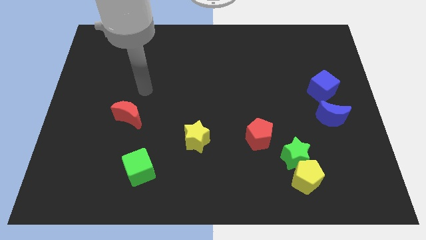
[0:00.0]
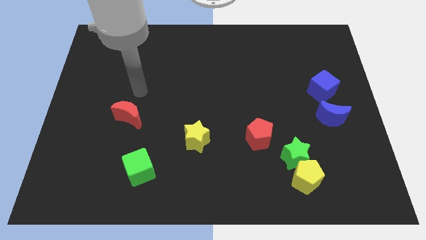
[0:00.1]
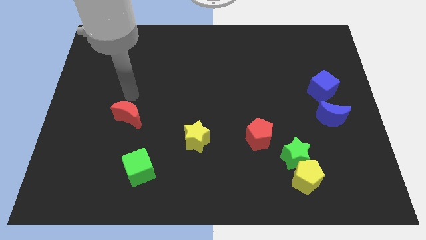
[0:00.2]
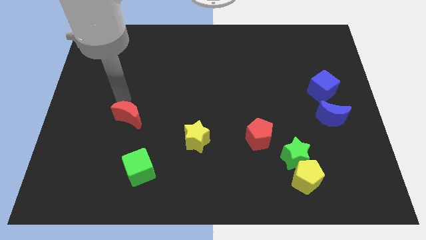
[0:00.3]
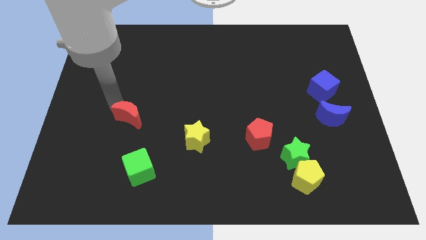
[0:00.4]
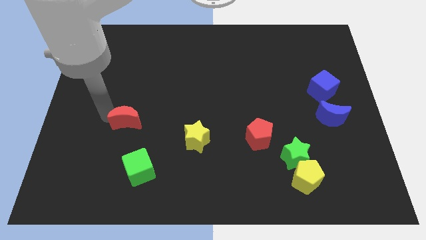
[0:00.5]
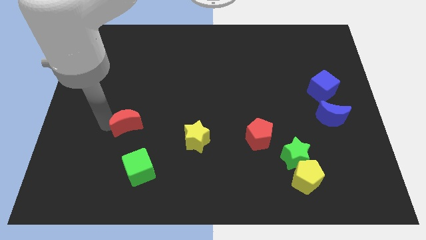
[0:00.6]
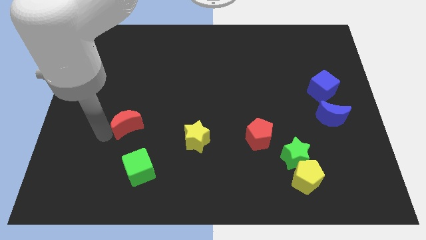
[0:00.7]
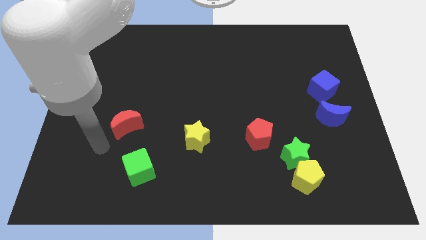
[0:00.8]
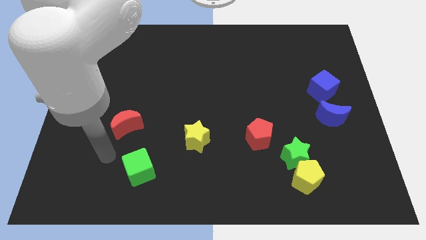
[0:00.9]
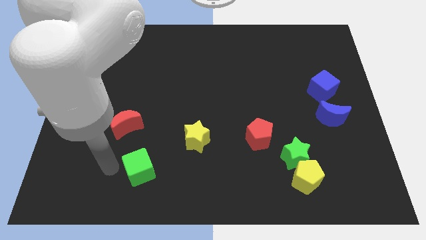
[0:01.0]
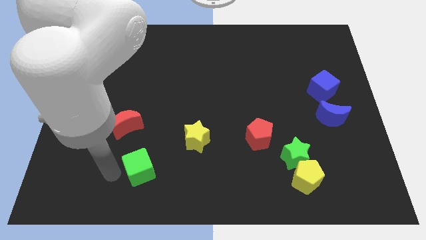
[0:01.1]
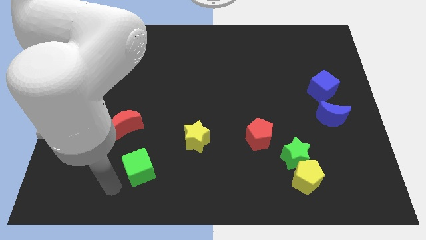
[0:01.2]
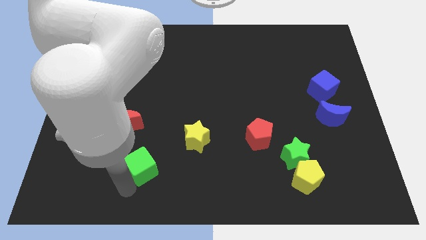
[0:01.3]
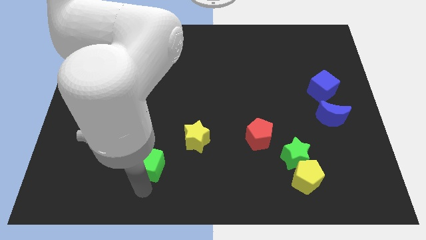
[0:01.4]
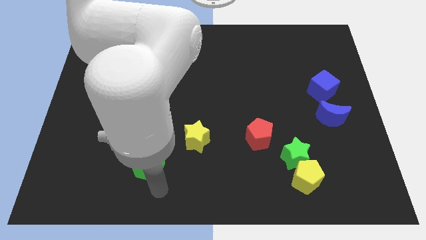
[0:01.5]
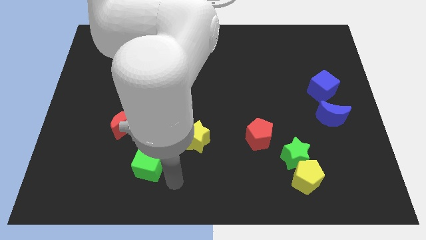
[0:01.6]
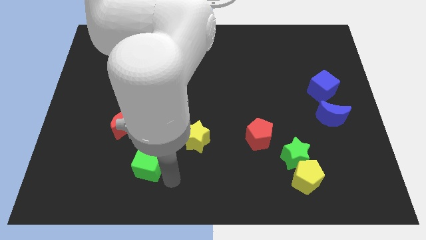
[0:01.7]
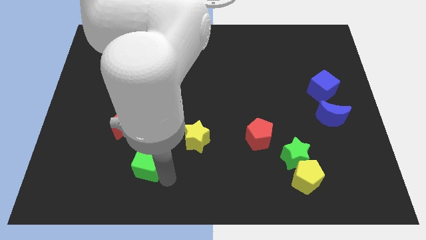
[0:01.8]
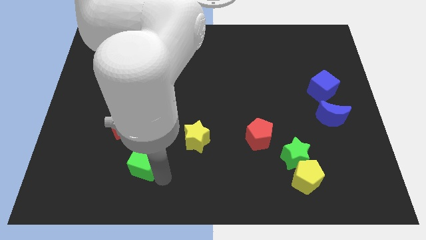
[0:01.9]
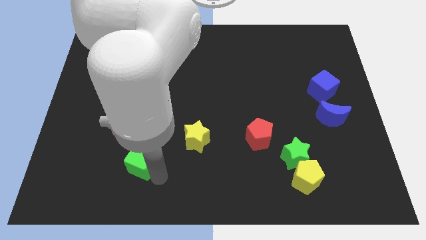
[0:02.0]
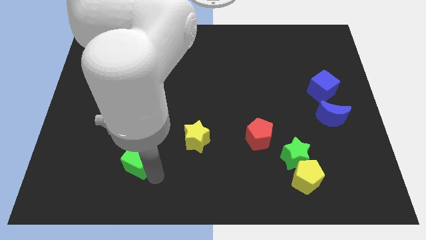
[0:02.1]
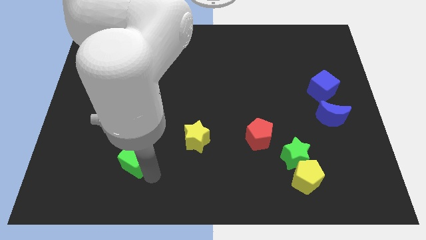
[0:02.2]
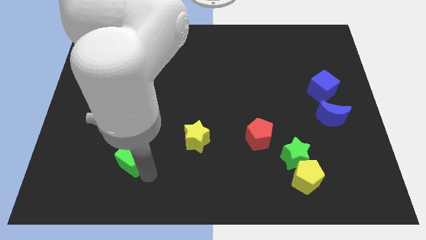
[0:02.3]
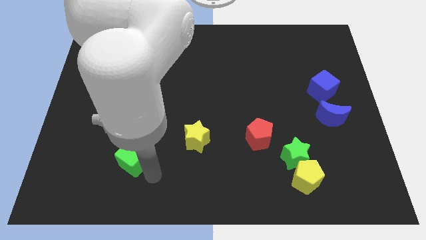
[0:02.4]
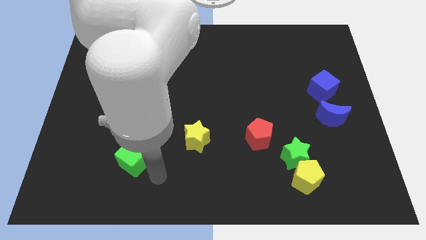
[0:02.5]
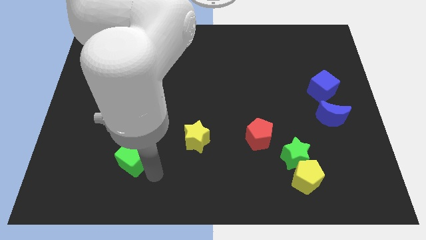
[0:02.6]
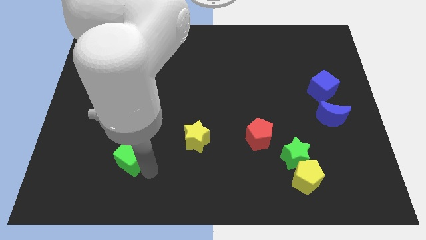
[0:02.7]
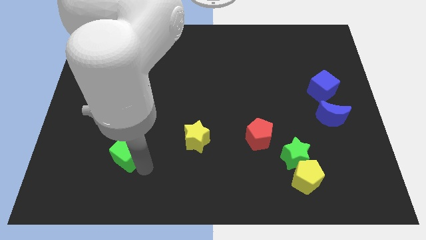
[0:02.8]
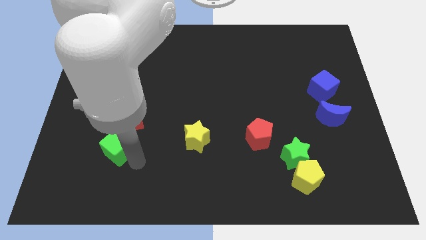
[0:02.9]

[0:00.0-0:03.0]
slide the green cube upwards and then to the left a bit

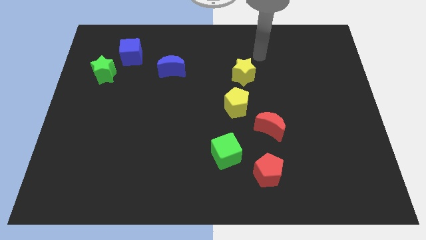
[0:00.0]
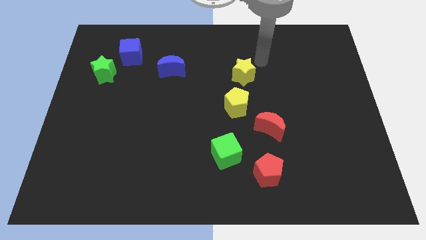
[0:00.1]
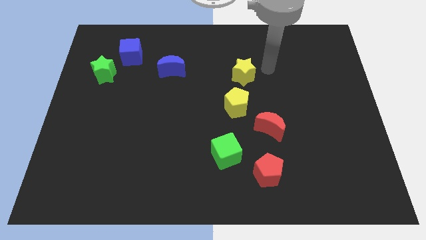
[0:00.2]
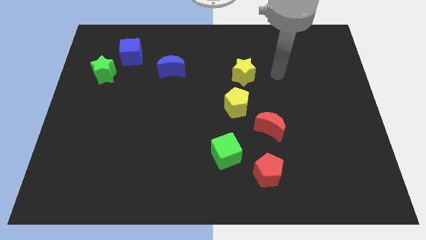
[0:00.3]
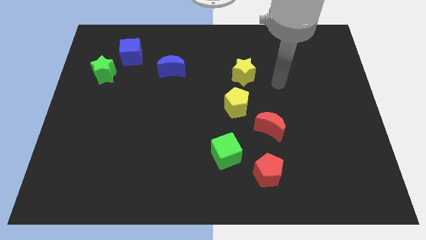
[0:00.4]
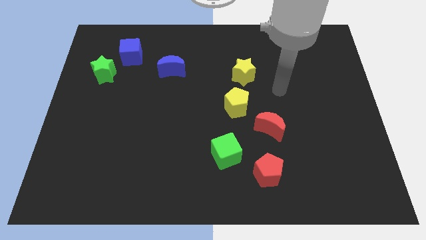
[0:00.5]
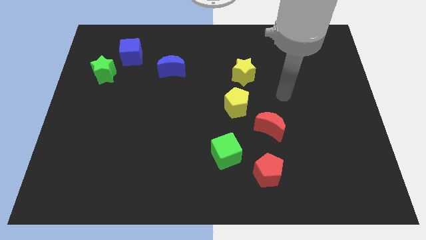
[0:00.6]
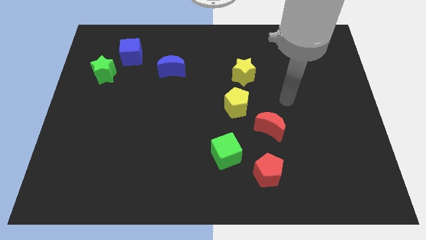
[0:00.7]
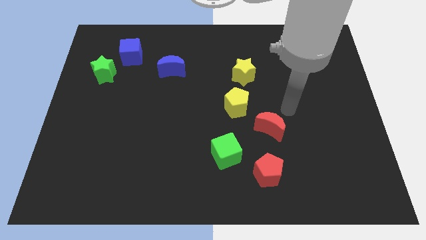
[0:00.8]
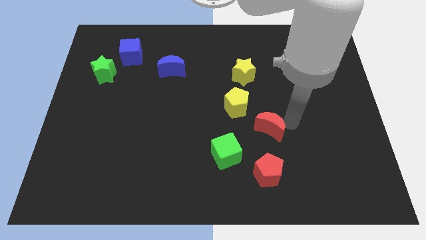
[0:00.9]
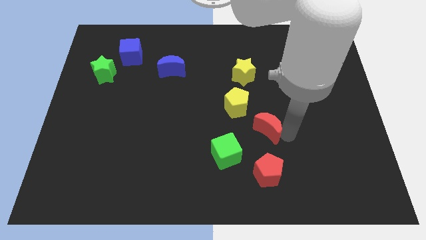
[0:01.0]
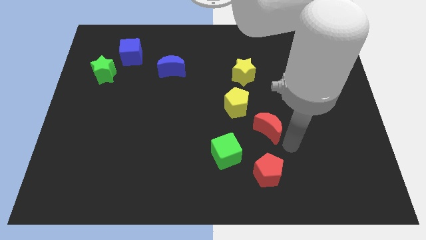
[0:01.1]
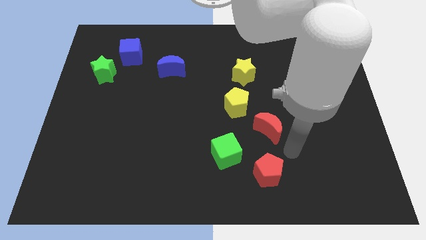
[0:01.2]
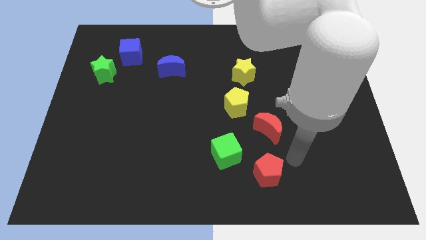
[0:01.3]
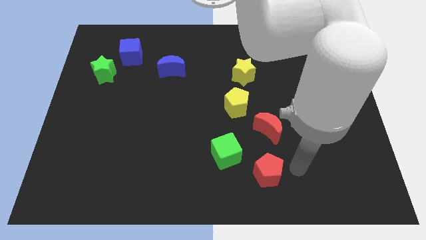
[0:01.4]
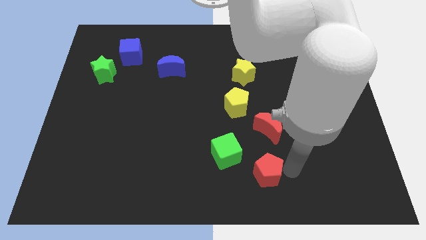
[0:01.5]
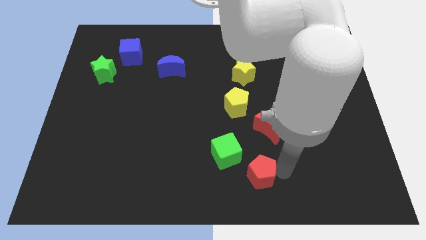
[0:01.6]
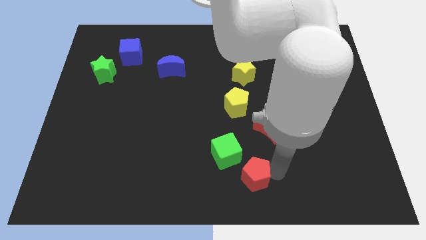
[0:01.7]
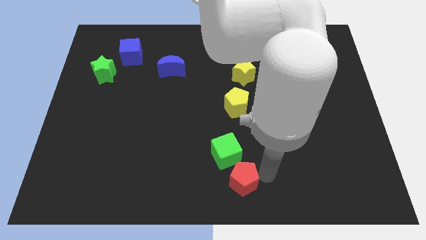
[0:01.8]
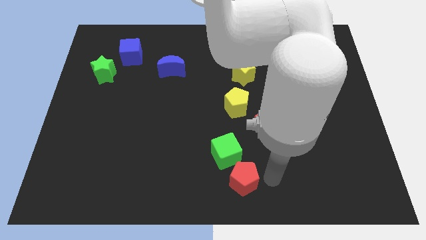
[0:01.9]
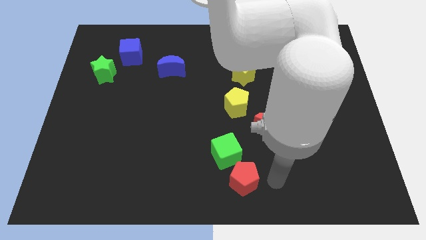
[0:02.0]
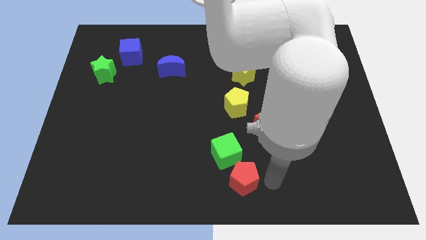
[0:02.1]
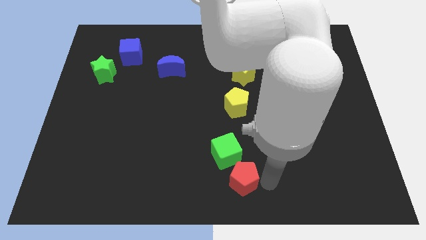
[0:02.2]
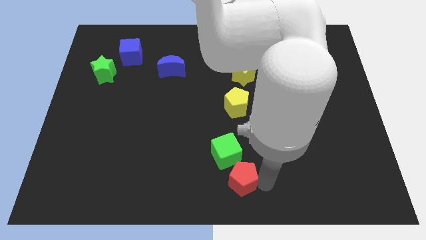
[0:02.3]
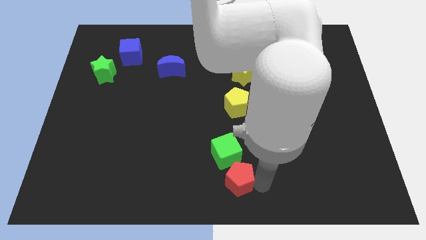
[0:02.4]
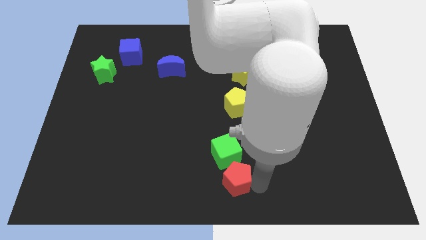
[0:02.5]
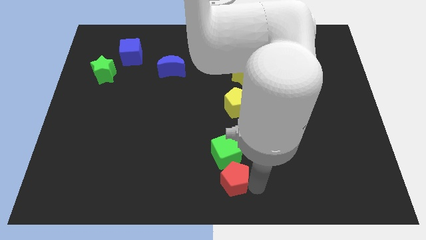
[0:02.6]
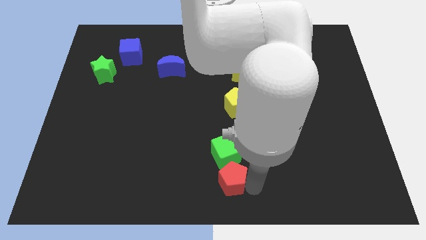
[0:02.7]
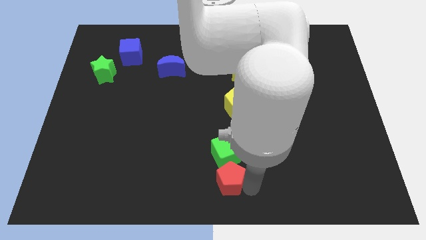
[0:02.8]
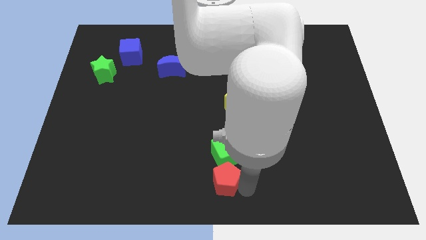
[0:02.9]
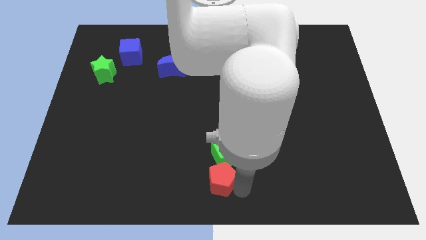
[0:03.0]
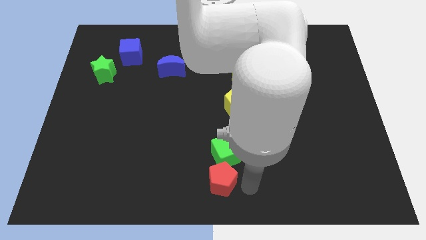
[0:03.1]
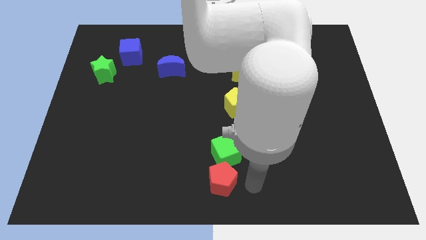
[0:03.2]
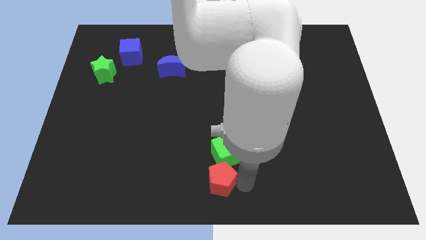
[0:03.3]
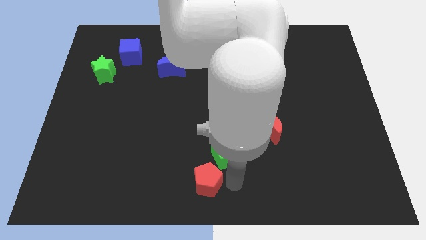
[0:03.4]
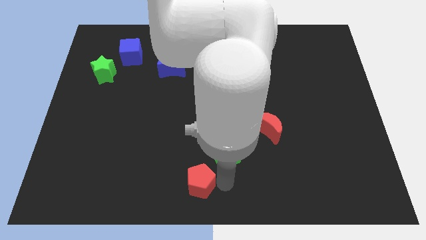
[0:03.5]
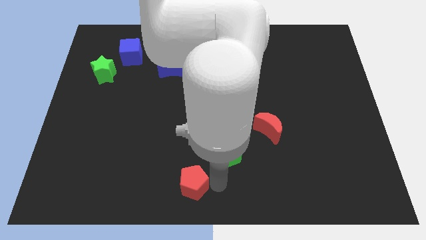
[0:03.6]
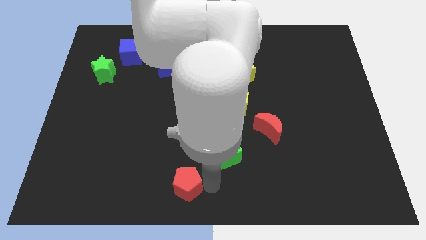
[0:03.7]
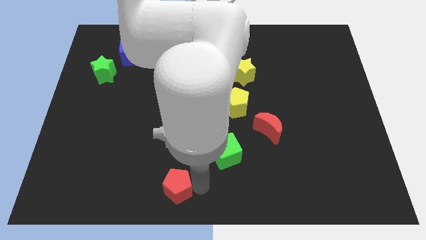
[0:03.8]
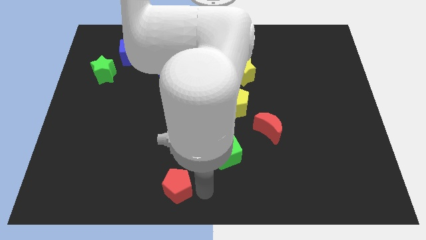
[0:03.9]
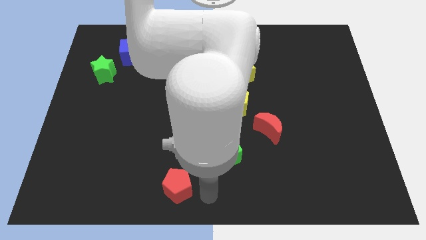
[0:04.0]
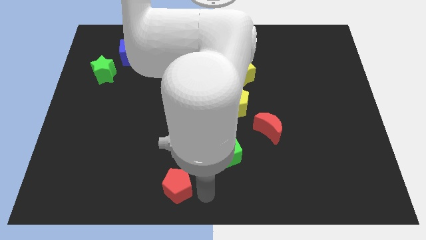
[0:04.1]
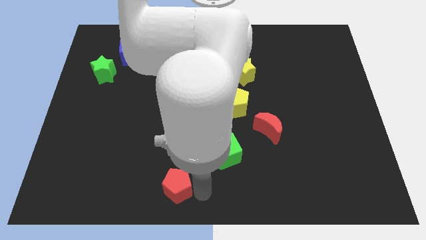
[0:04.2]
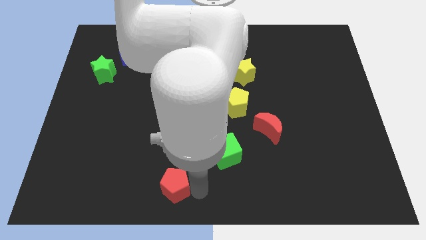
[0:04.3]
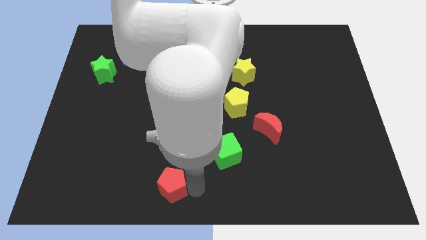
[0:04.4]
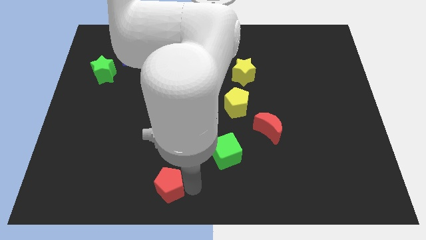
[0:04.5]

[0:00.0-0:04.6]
push the red pentagon to the left

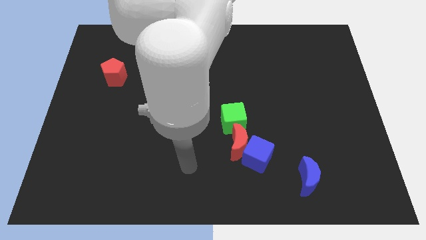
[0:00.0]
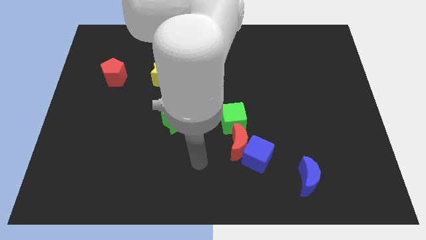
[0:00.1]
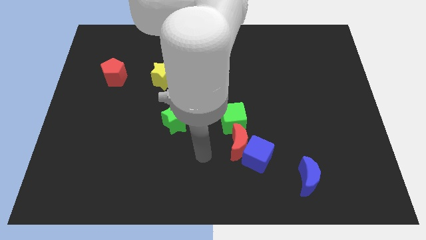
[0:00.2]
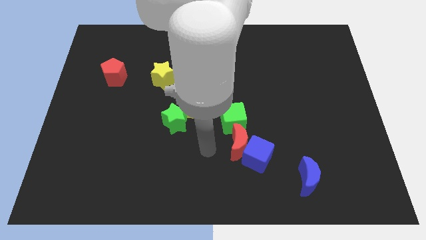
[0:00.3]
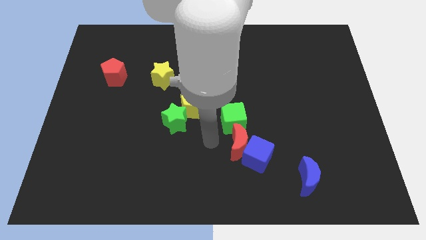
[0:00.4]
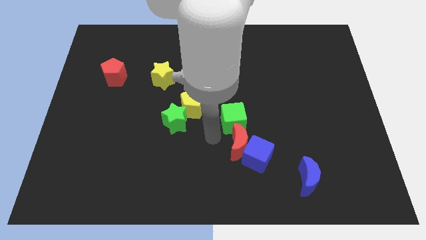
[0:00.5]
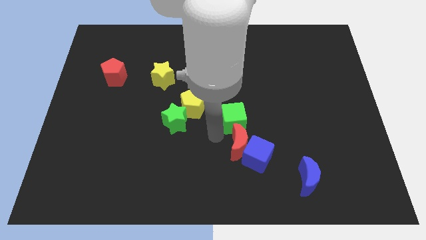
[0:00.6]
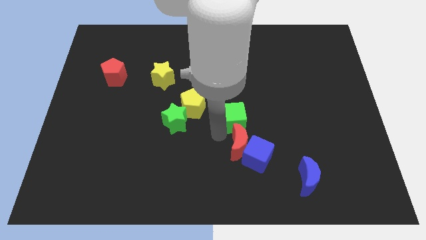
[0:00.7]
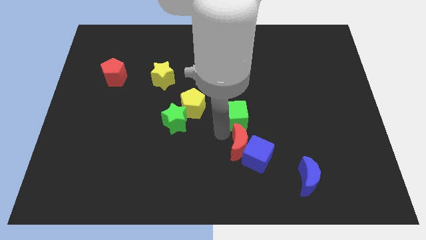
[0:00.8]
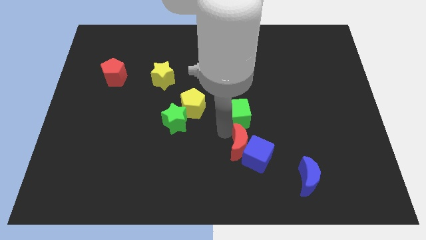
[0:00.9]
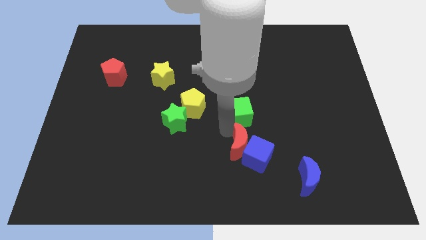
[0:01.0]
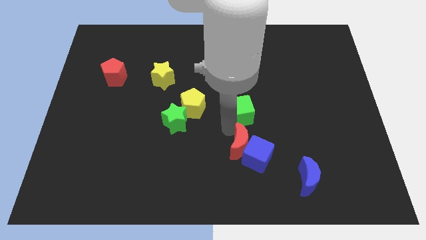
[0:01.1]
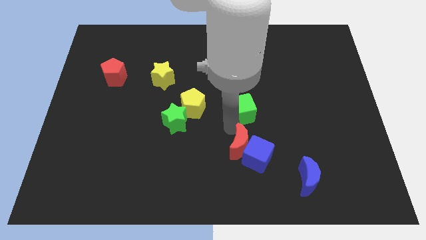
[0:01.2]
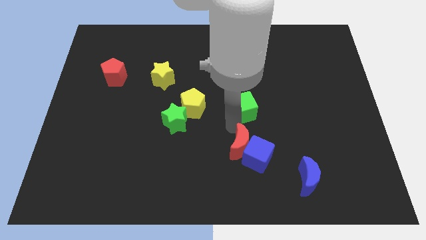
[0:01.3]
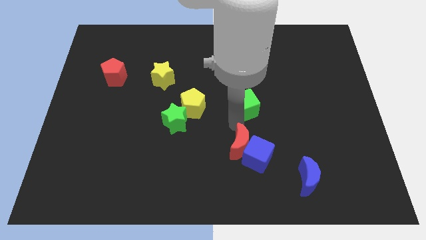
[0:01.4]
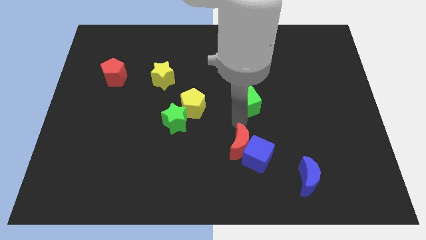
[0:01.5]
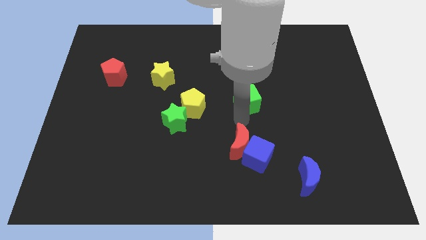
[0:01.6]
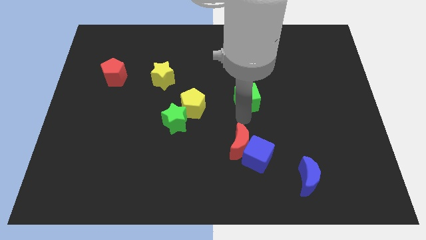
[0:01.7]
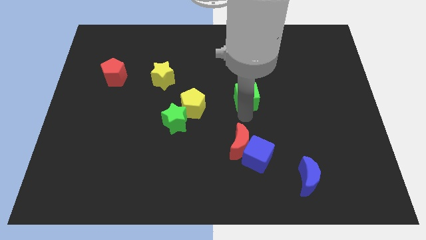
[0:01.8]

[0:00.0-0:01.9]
slightly slide the green cube diagonally up and right
